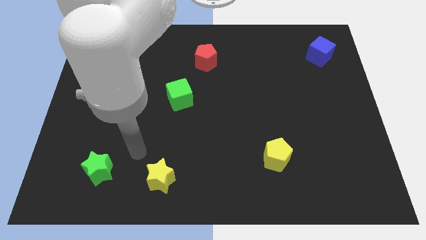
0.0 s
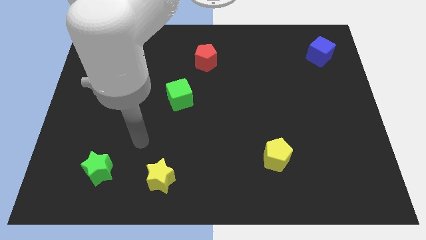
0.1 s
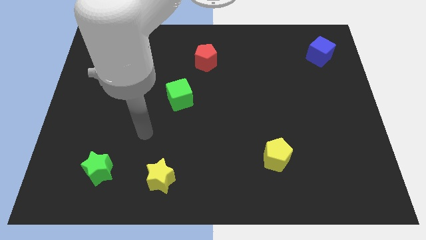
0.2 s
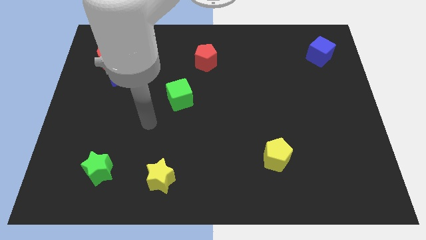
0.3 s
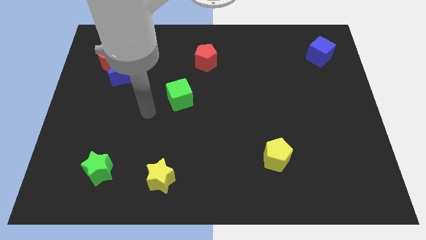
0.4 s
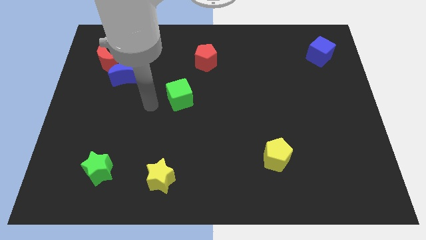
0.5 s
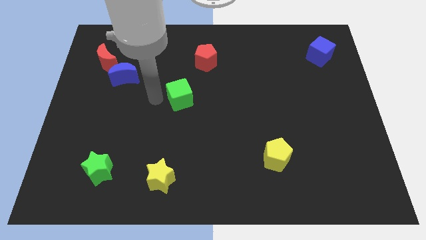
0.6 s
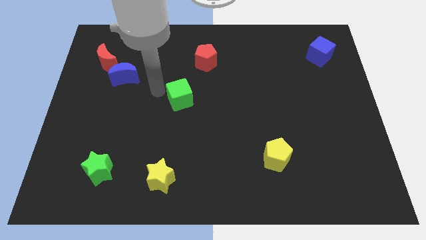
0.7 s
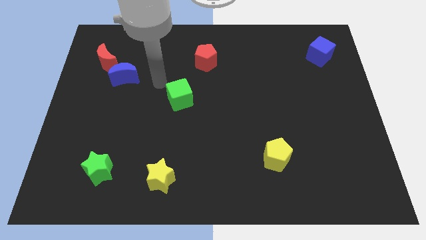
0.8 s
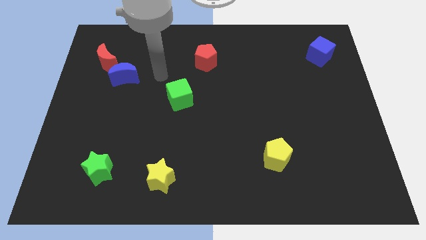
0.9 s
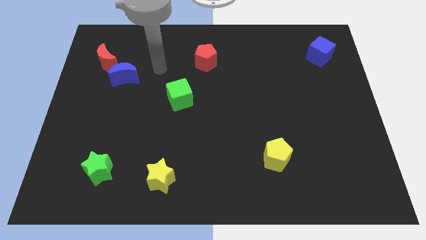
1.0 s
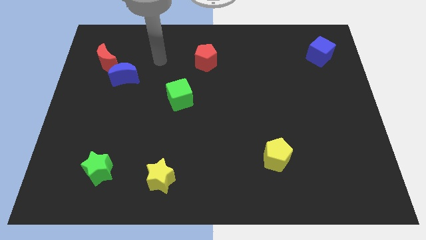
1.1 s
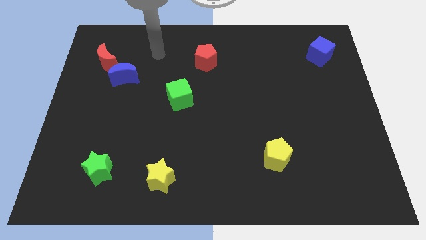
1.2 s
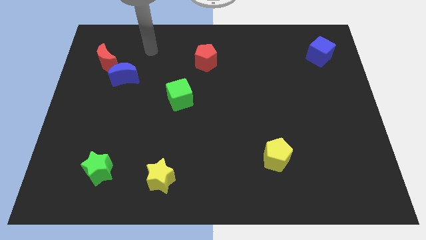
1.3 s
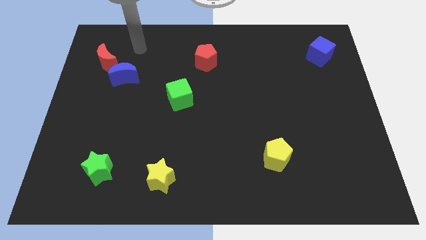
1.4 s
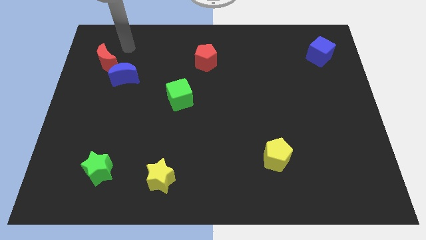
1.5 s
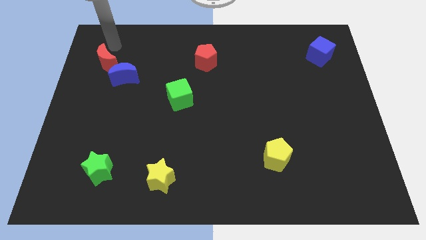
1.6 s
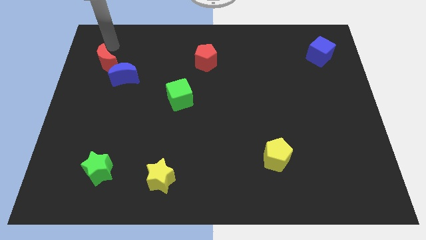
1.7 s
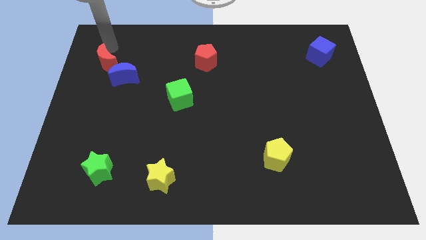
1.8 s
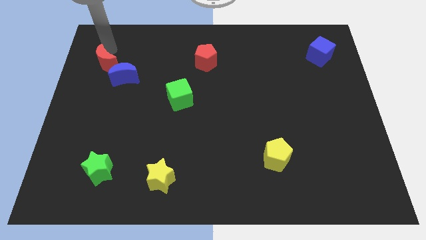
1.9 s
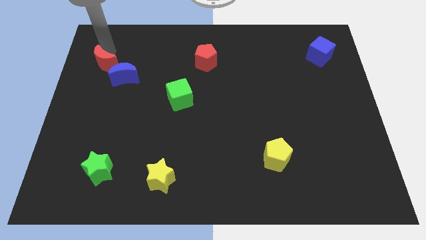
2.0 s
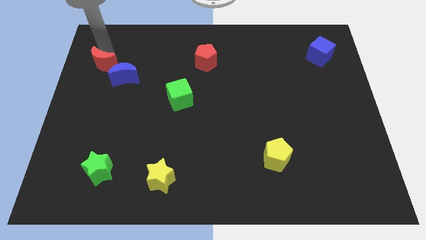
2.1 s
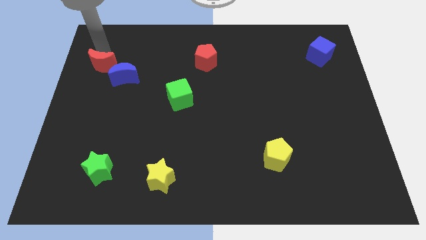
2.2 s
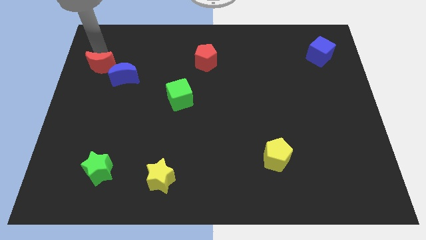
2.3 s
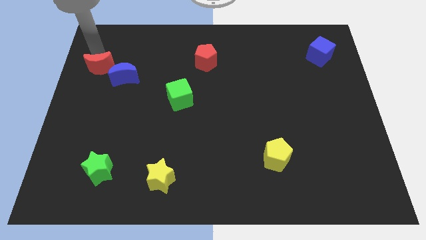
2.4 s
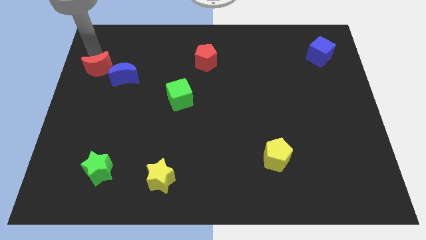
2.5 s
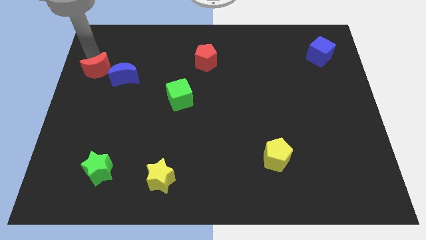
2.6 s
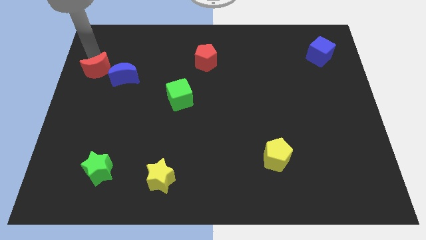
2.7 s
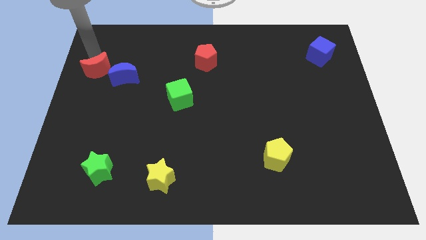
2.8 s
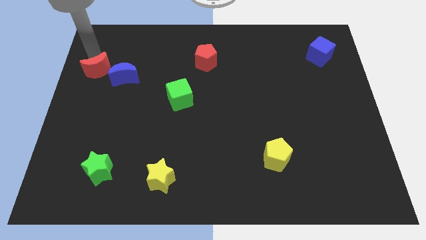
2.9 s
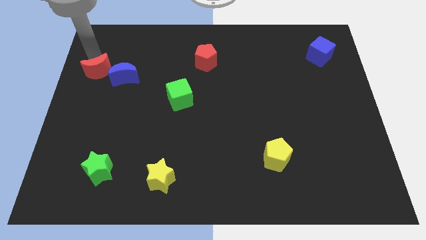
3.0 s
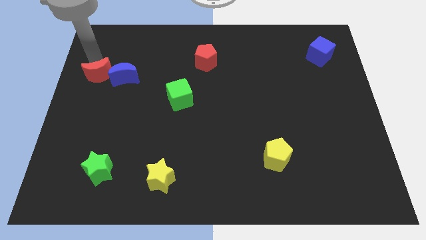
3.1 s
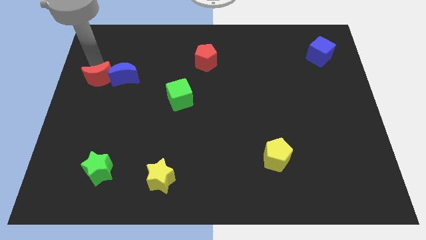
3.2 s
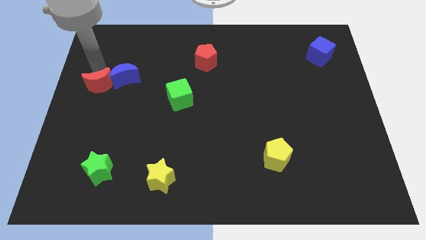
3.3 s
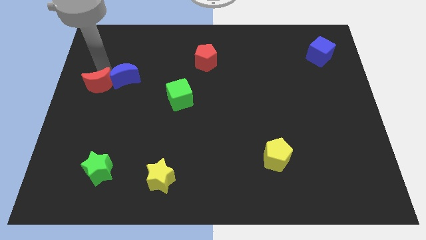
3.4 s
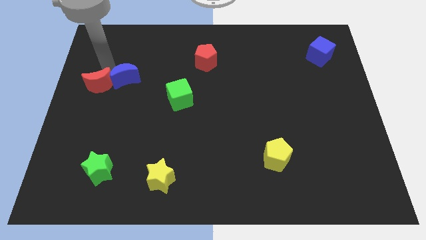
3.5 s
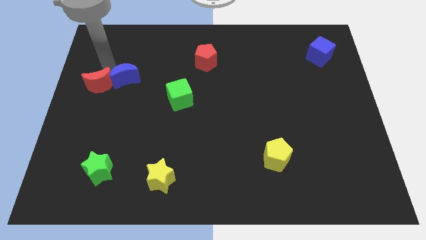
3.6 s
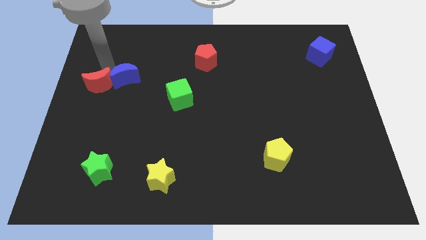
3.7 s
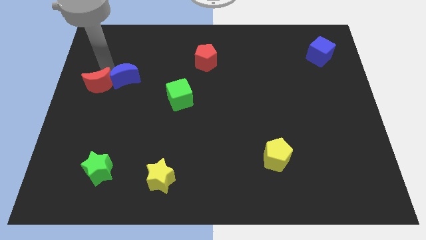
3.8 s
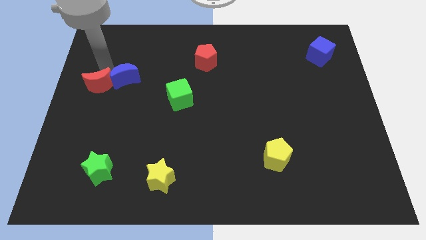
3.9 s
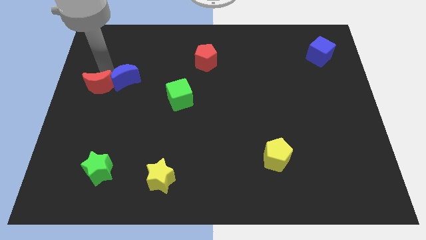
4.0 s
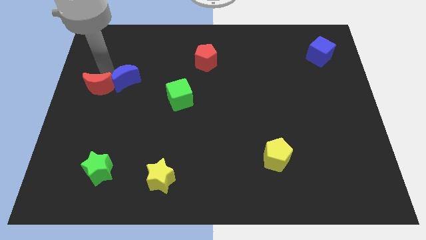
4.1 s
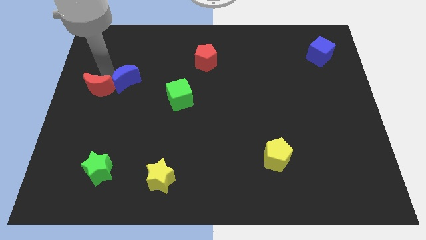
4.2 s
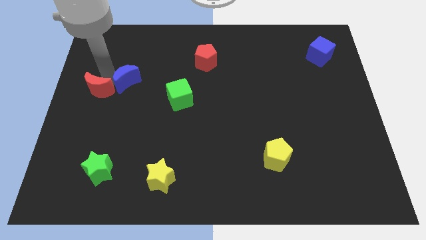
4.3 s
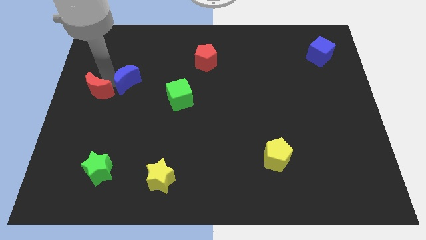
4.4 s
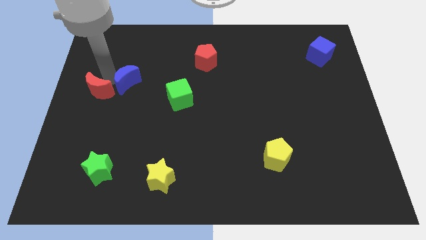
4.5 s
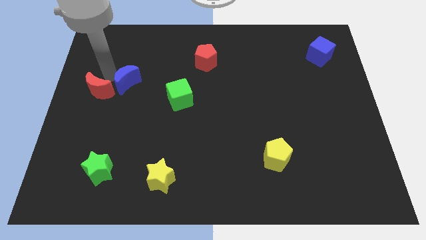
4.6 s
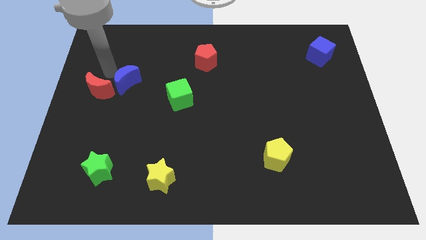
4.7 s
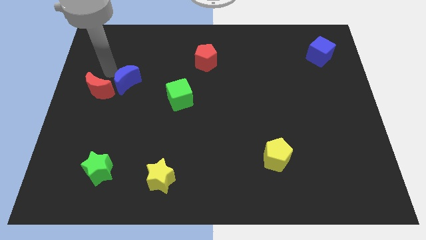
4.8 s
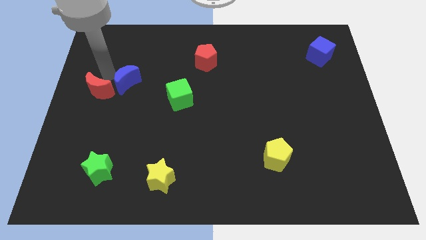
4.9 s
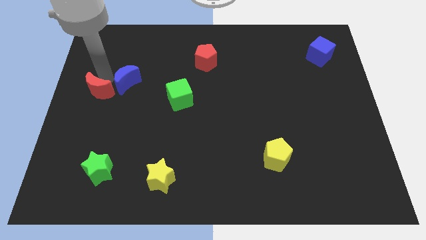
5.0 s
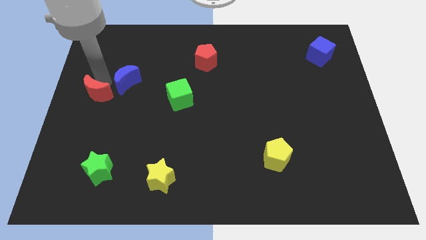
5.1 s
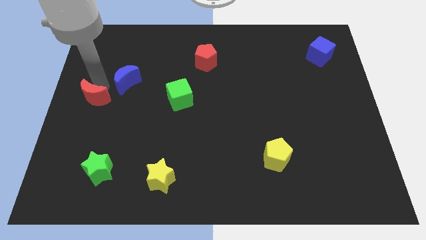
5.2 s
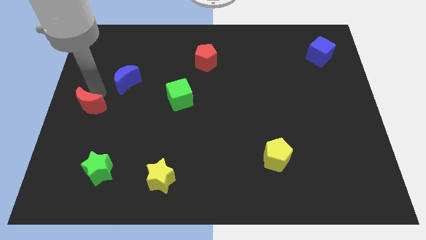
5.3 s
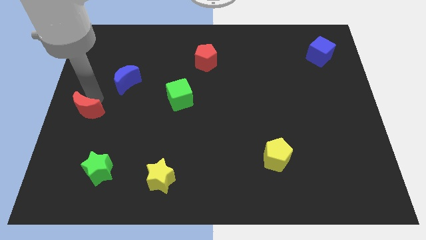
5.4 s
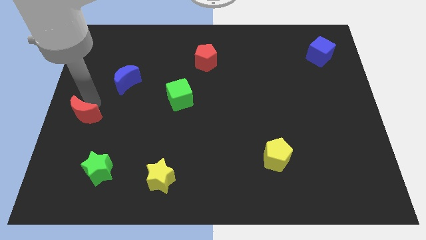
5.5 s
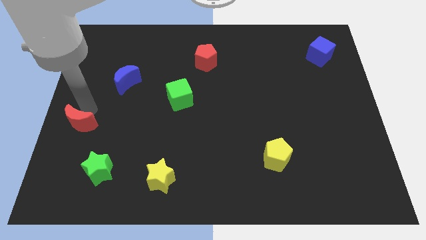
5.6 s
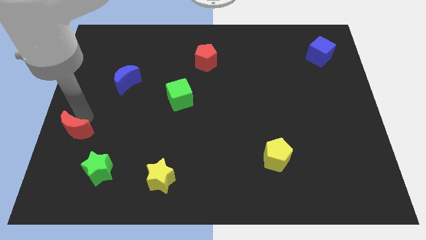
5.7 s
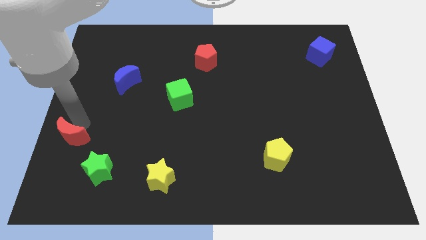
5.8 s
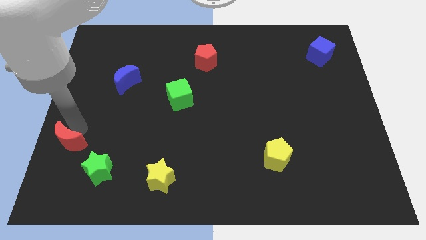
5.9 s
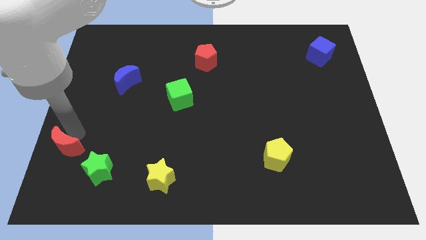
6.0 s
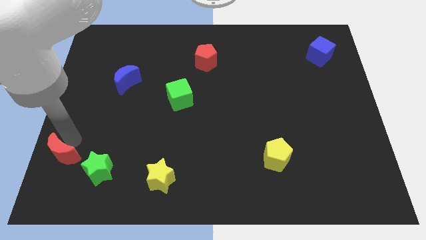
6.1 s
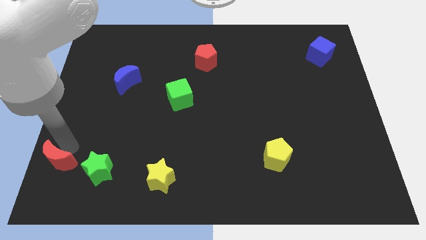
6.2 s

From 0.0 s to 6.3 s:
put the red moon to the bottom left corner

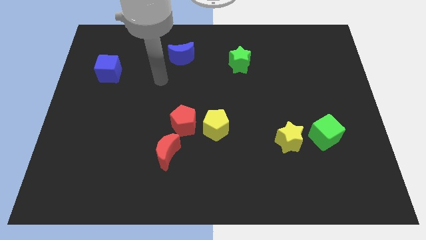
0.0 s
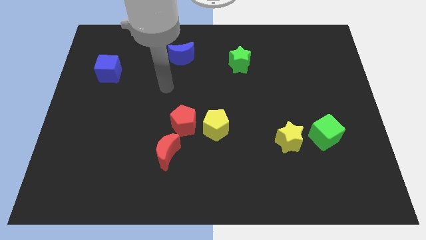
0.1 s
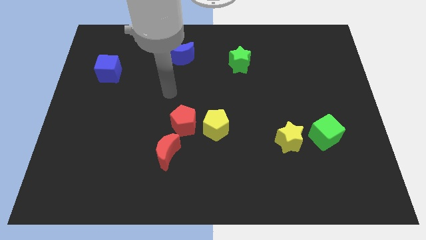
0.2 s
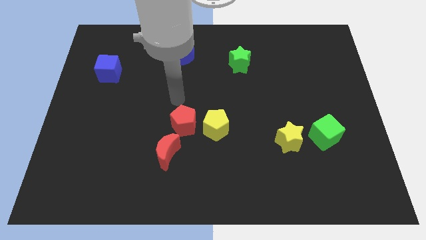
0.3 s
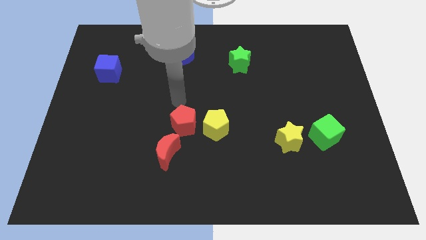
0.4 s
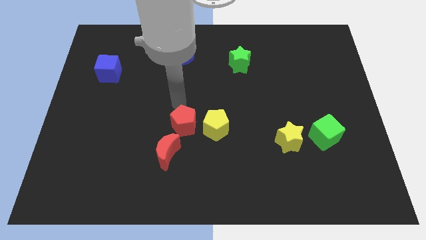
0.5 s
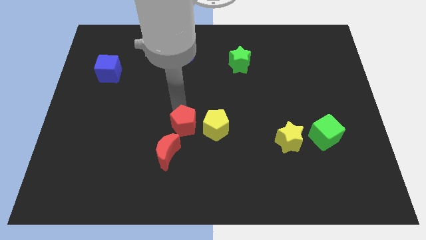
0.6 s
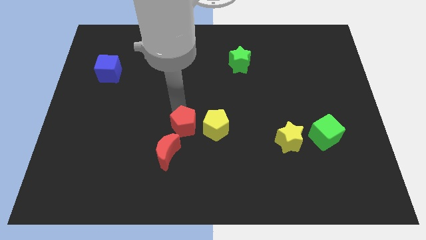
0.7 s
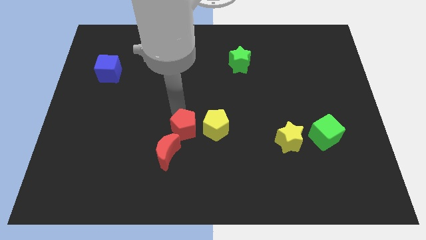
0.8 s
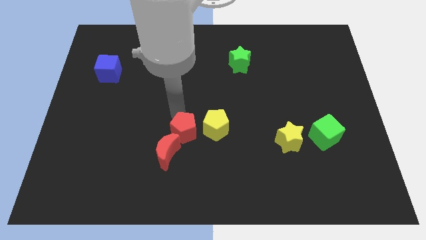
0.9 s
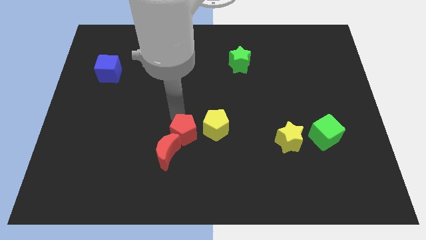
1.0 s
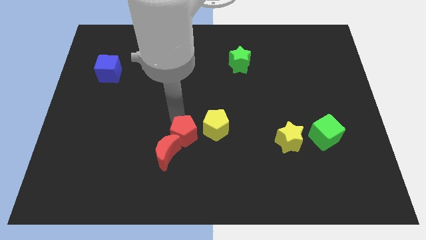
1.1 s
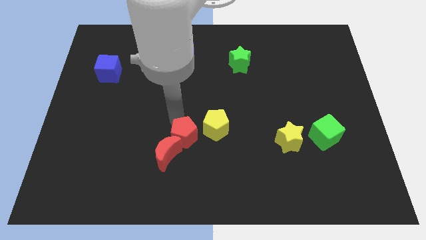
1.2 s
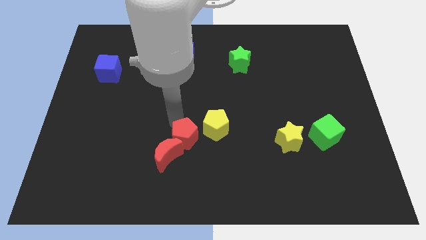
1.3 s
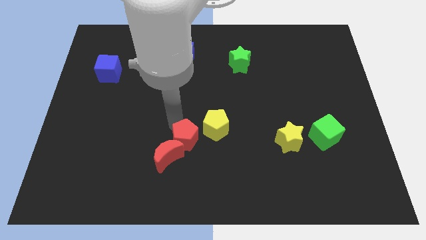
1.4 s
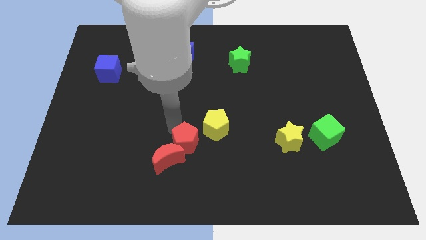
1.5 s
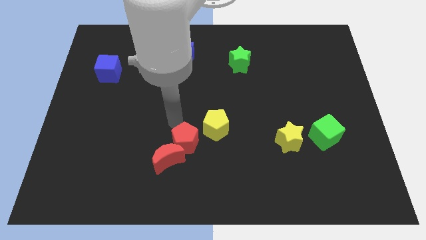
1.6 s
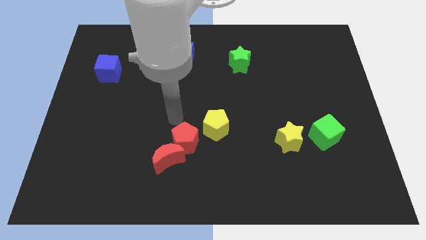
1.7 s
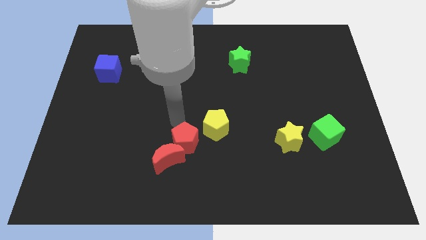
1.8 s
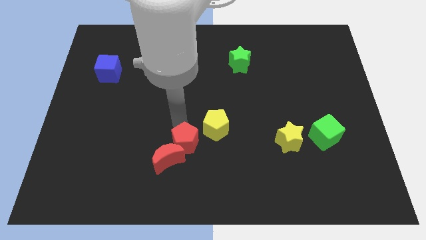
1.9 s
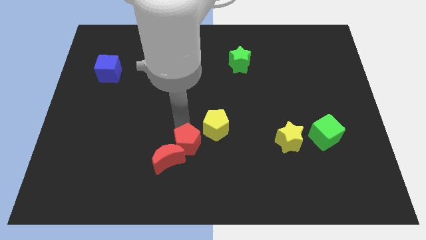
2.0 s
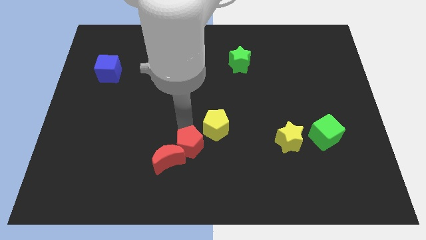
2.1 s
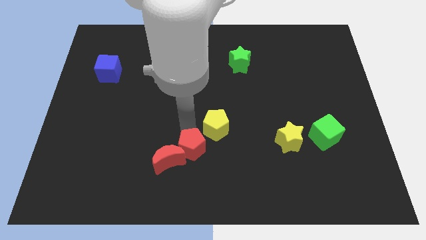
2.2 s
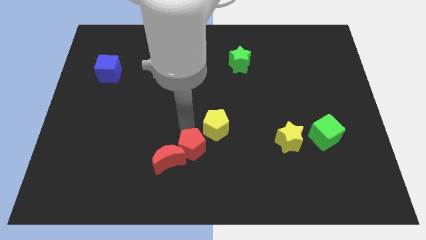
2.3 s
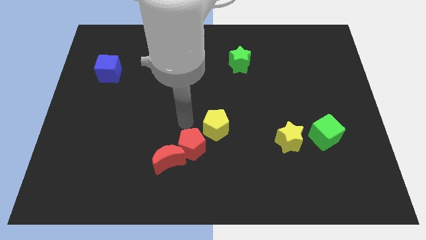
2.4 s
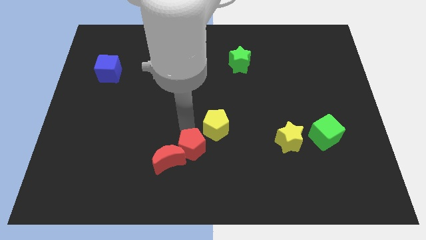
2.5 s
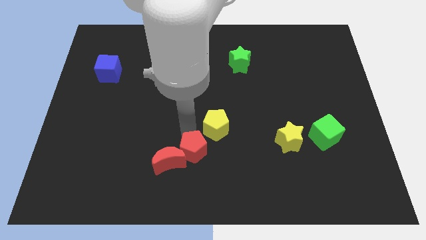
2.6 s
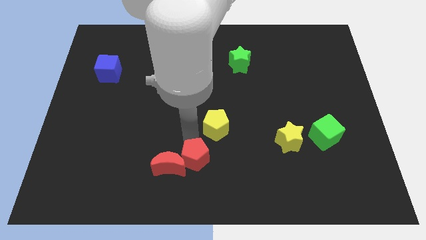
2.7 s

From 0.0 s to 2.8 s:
move the red pentagon to the bottom
